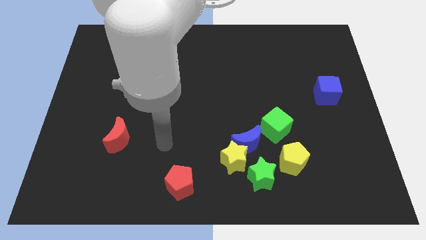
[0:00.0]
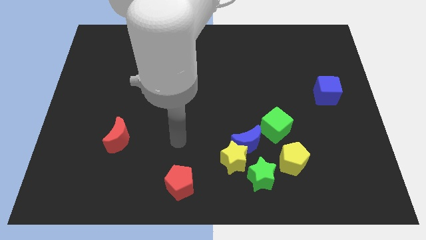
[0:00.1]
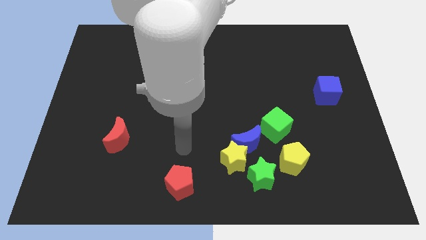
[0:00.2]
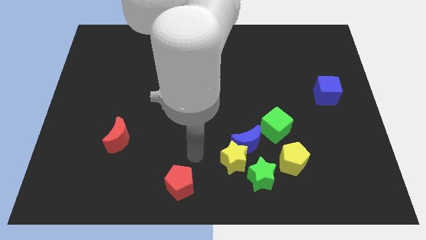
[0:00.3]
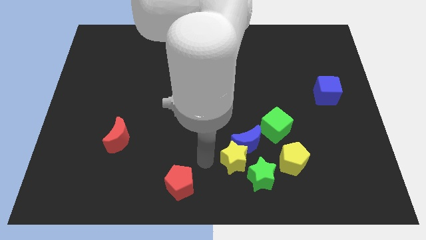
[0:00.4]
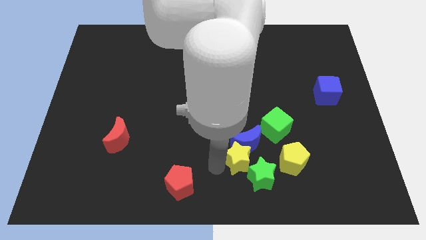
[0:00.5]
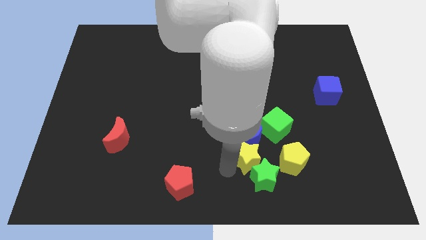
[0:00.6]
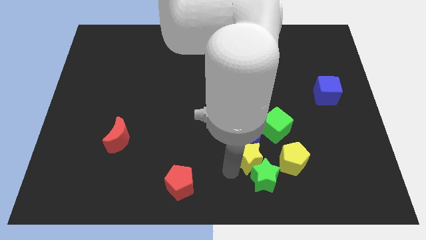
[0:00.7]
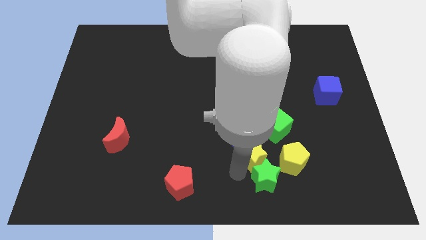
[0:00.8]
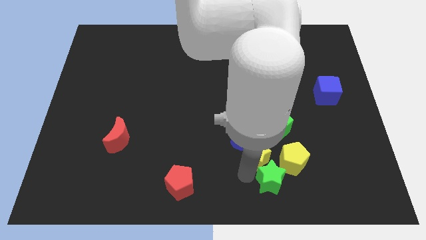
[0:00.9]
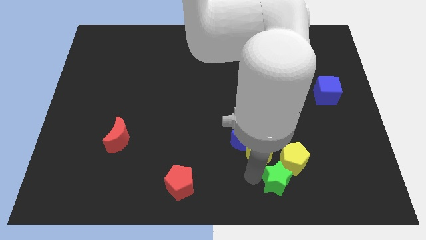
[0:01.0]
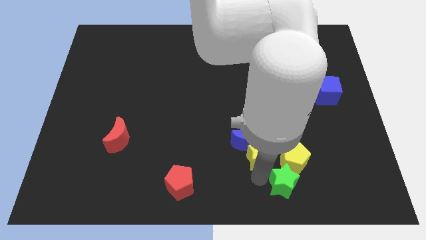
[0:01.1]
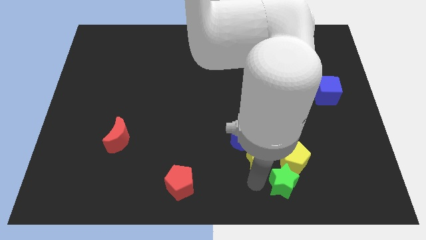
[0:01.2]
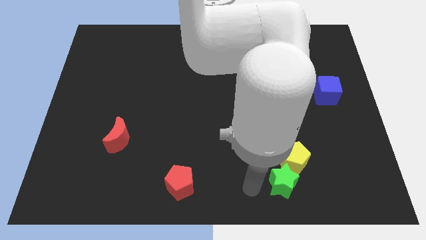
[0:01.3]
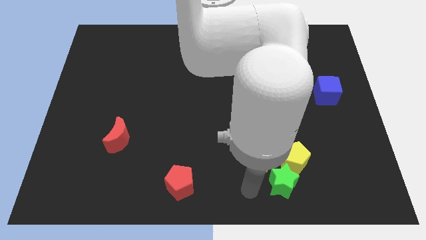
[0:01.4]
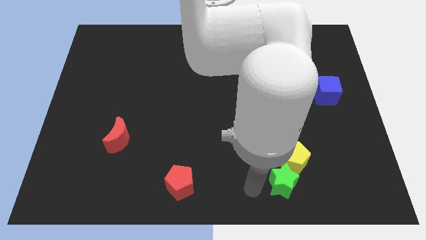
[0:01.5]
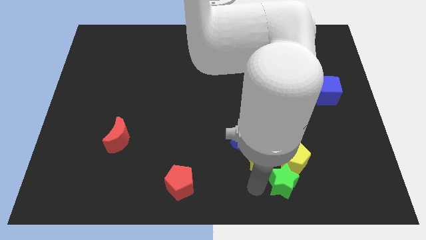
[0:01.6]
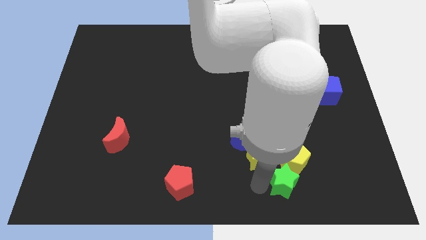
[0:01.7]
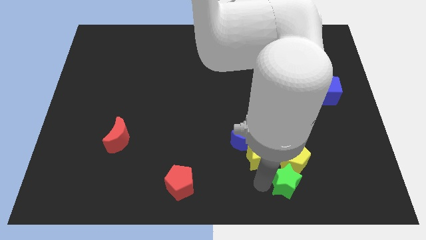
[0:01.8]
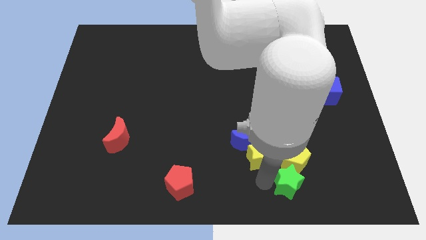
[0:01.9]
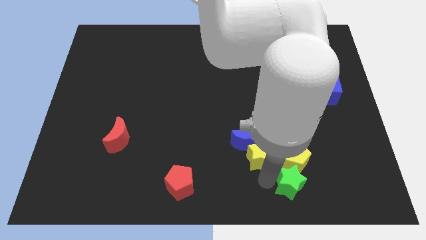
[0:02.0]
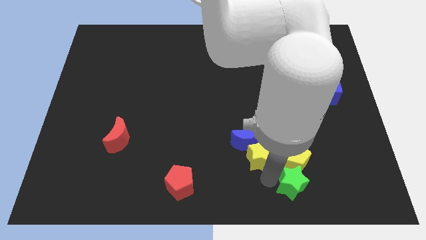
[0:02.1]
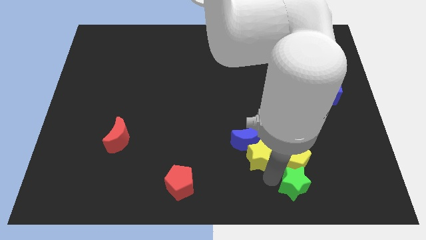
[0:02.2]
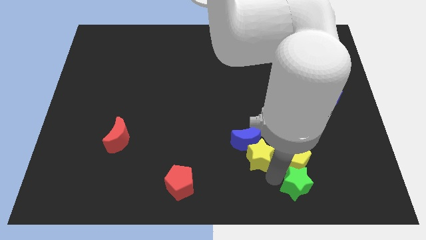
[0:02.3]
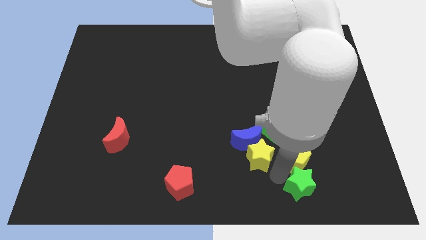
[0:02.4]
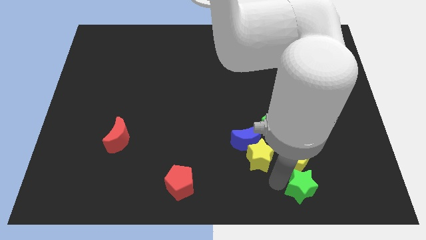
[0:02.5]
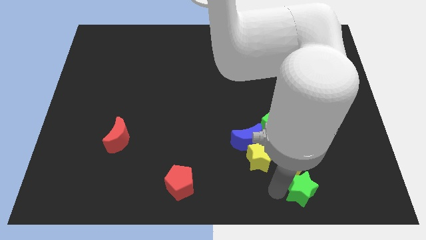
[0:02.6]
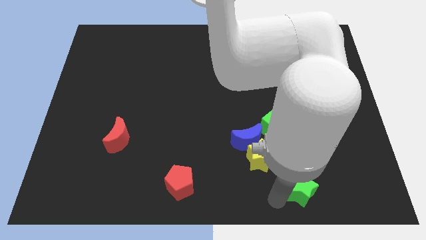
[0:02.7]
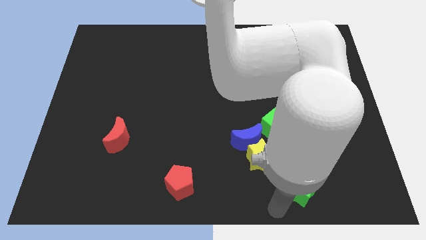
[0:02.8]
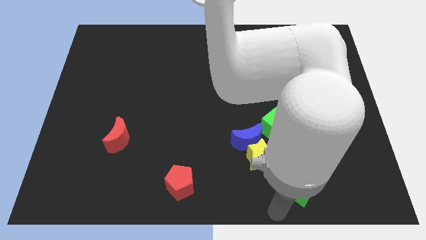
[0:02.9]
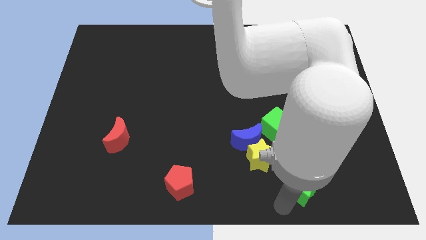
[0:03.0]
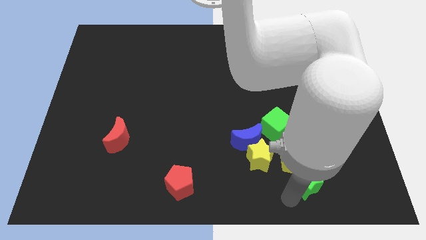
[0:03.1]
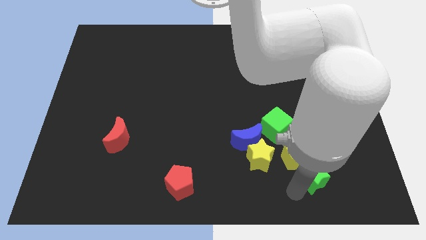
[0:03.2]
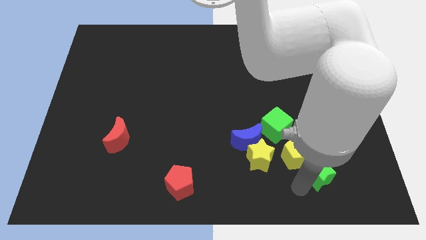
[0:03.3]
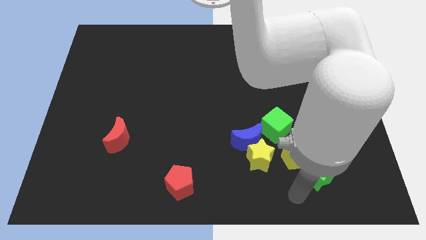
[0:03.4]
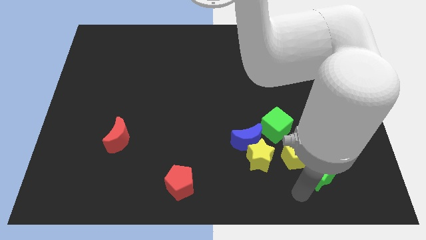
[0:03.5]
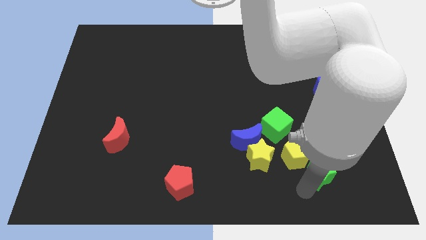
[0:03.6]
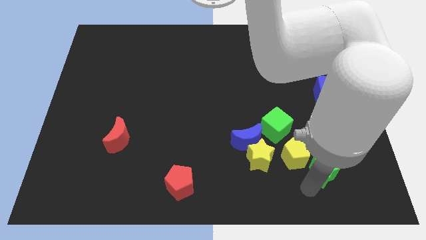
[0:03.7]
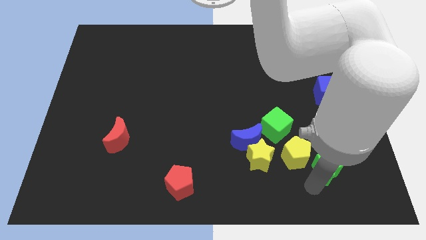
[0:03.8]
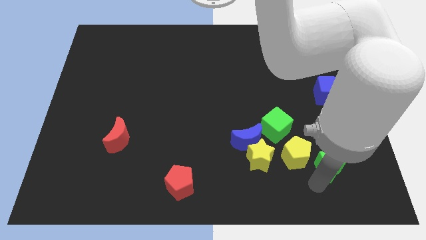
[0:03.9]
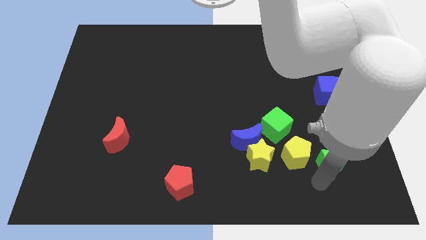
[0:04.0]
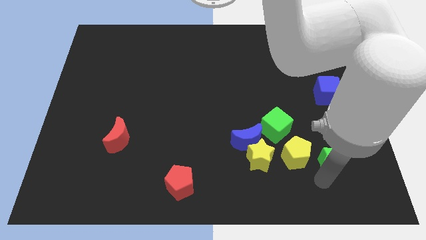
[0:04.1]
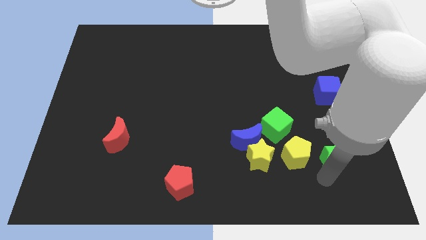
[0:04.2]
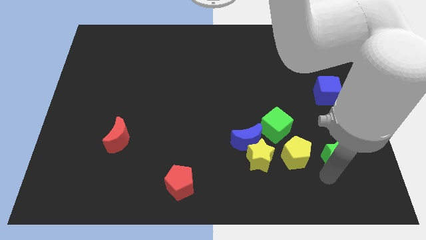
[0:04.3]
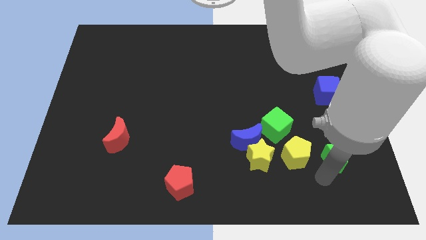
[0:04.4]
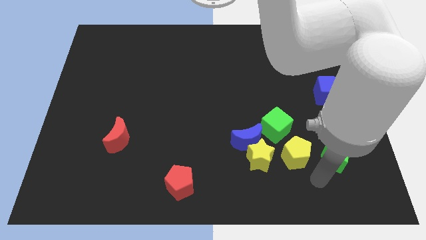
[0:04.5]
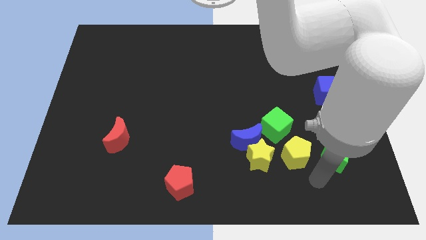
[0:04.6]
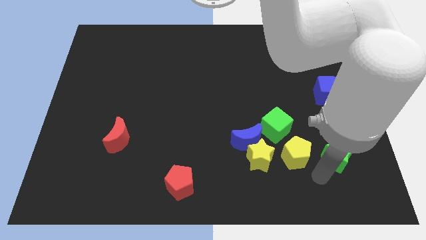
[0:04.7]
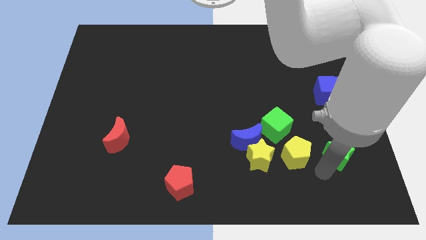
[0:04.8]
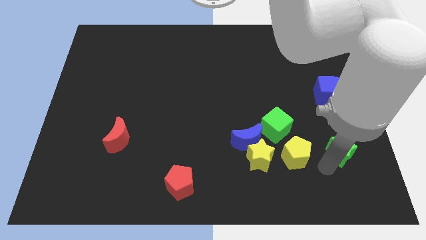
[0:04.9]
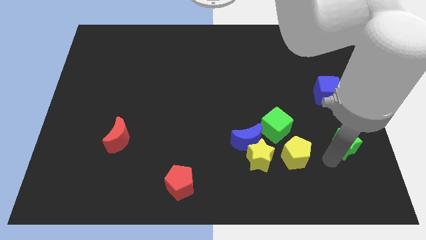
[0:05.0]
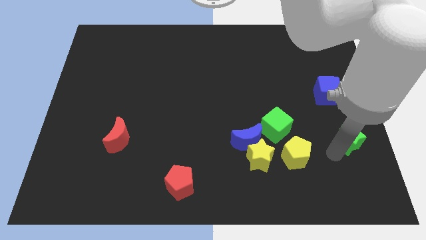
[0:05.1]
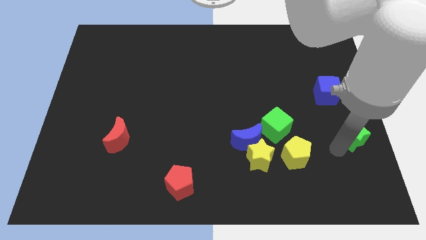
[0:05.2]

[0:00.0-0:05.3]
put the green star to the right side

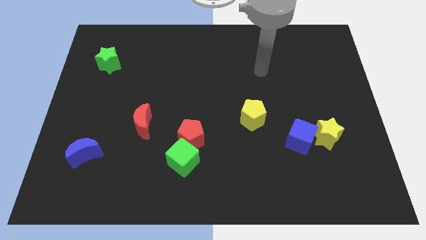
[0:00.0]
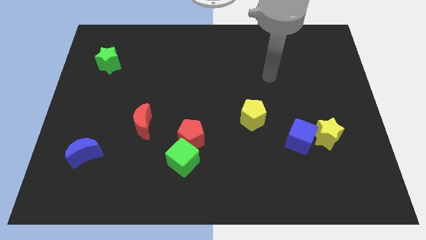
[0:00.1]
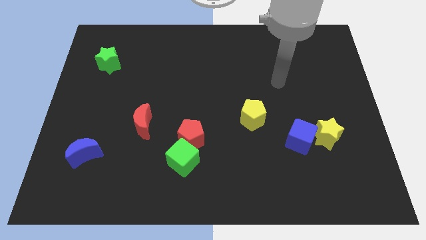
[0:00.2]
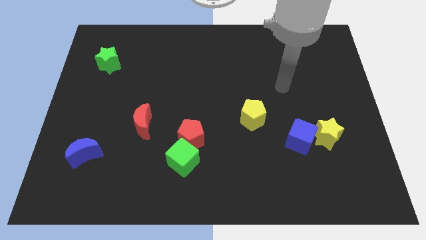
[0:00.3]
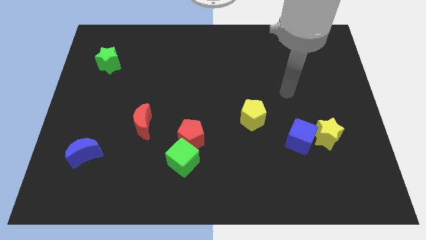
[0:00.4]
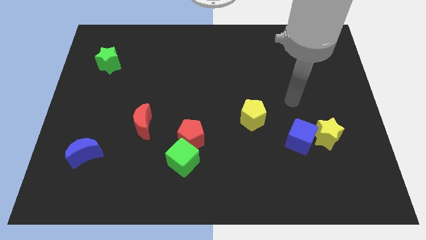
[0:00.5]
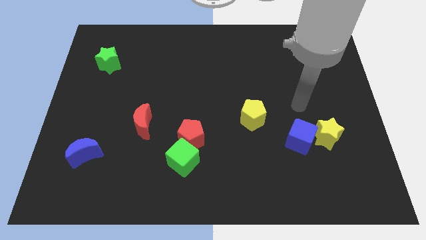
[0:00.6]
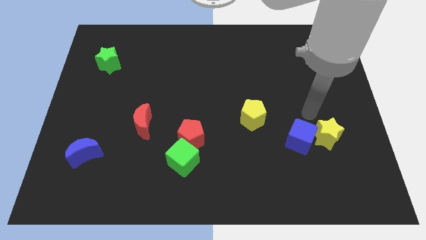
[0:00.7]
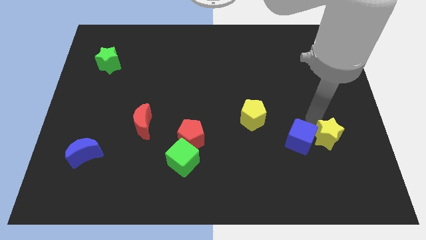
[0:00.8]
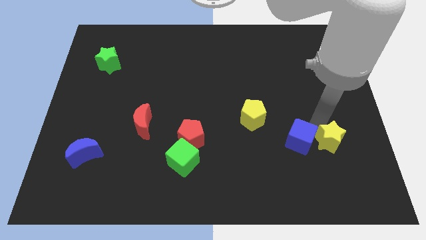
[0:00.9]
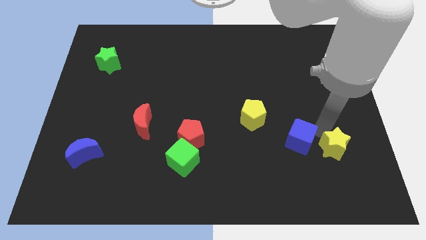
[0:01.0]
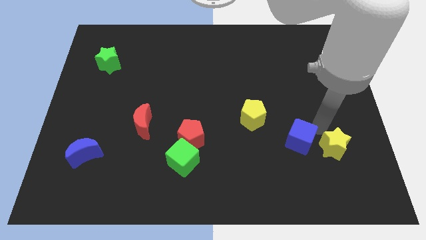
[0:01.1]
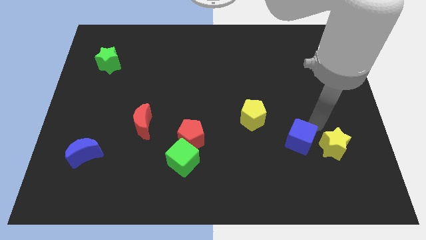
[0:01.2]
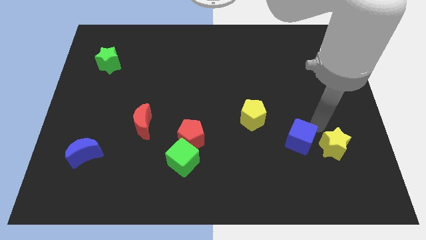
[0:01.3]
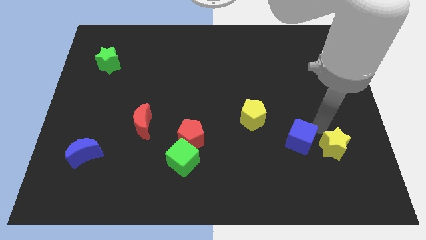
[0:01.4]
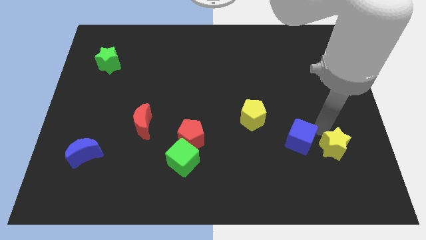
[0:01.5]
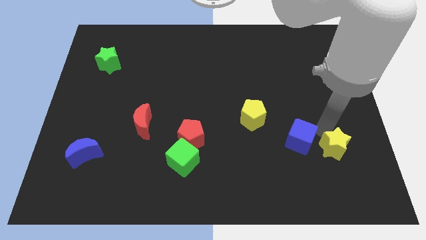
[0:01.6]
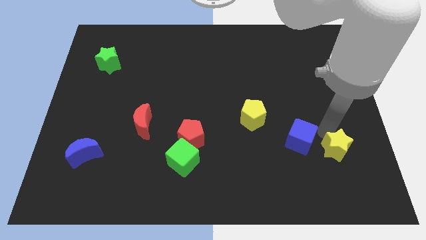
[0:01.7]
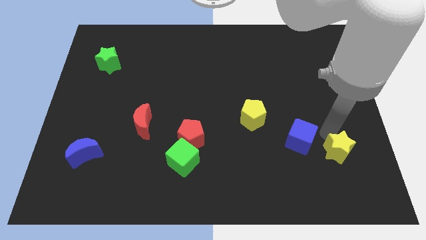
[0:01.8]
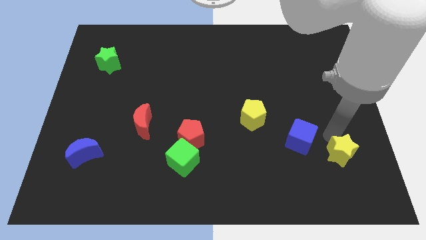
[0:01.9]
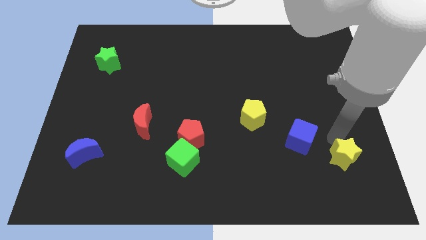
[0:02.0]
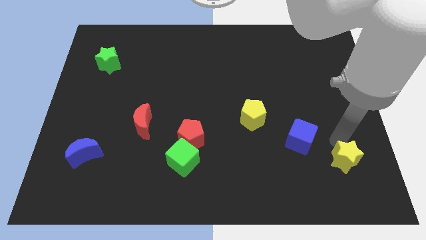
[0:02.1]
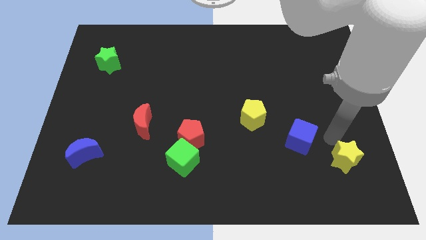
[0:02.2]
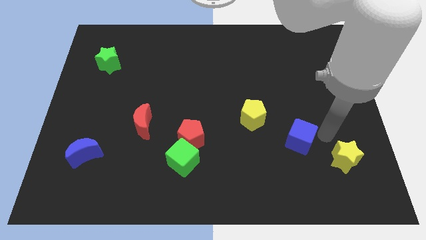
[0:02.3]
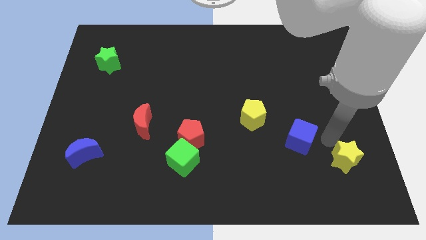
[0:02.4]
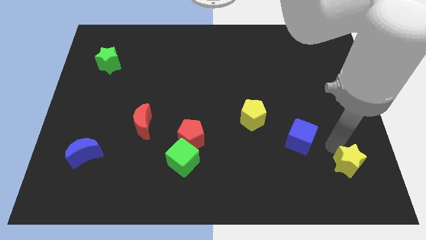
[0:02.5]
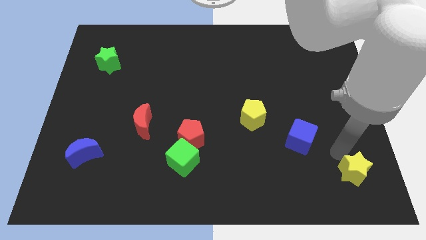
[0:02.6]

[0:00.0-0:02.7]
slide the yellow star to the bottom right
